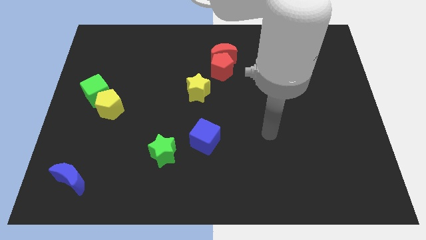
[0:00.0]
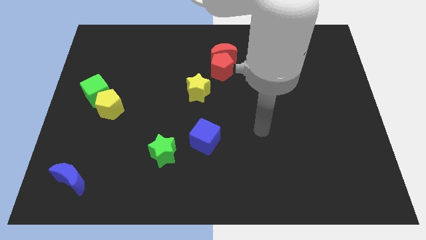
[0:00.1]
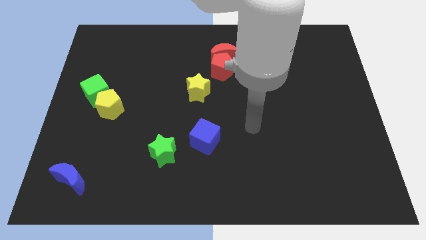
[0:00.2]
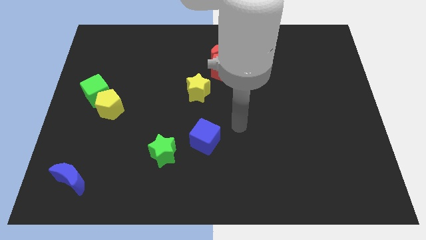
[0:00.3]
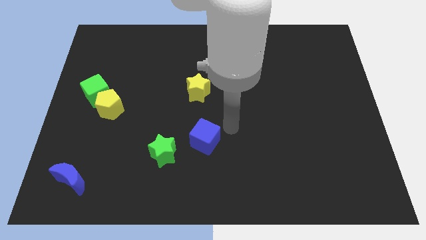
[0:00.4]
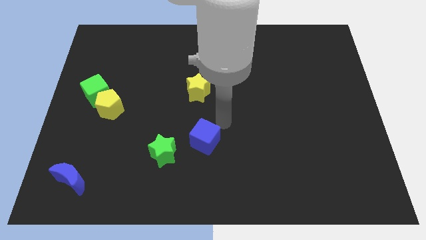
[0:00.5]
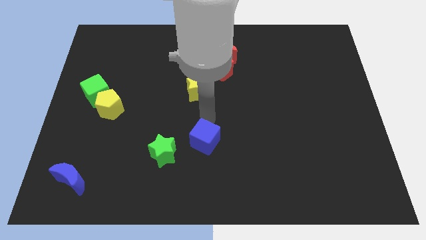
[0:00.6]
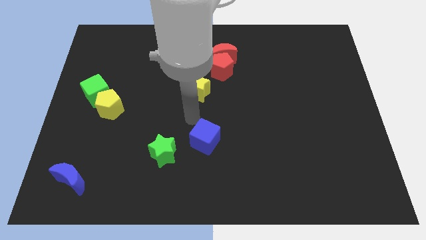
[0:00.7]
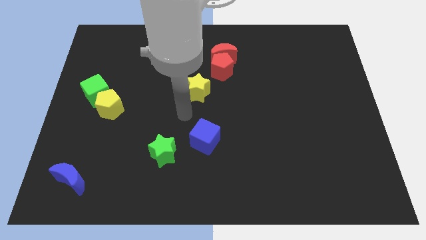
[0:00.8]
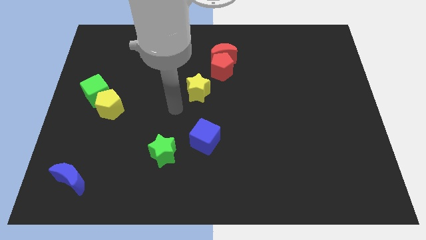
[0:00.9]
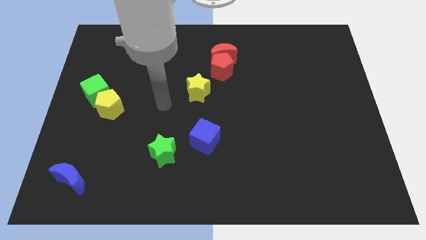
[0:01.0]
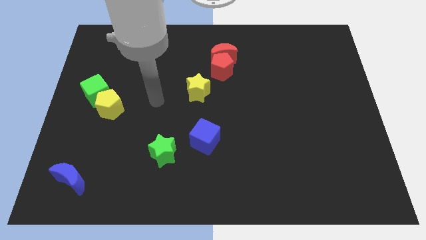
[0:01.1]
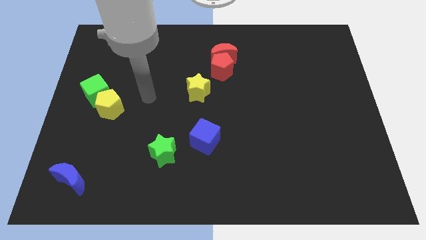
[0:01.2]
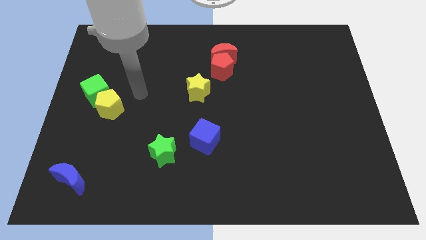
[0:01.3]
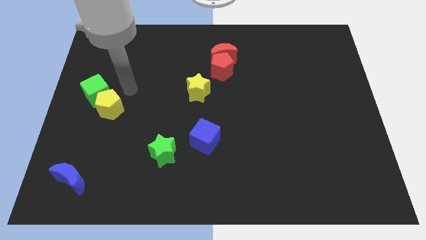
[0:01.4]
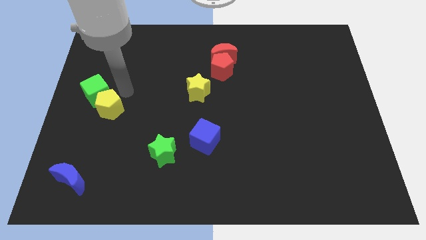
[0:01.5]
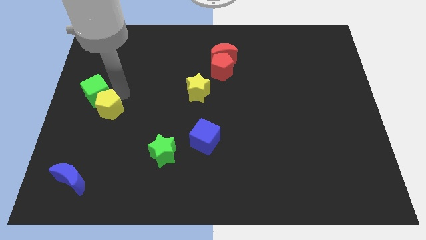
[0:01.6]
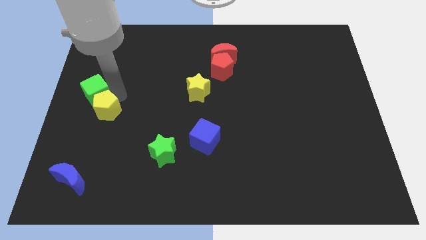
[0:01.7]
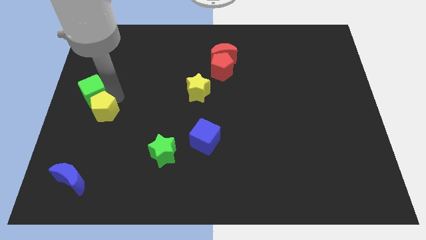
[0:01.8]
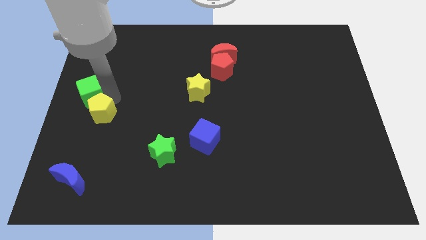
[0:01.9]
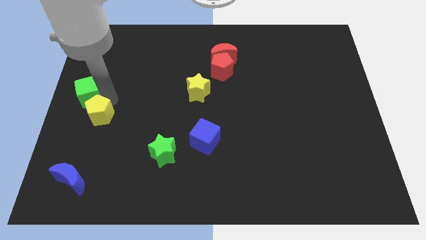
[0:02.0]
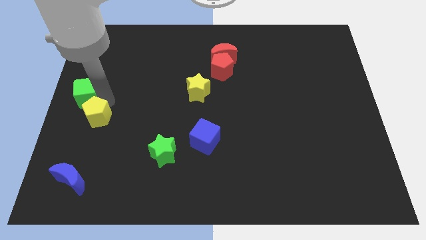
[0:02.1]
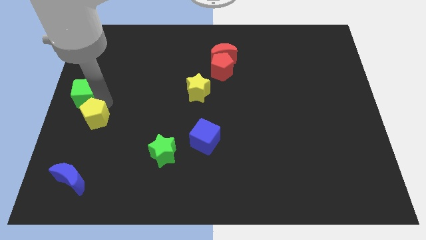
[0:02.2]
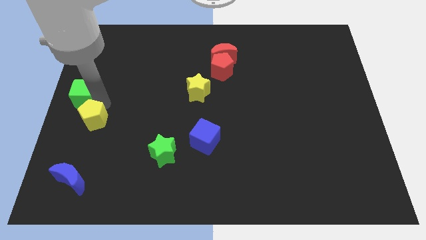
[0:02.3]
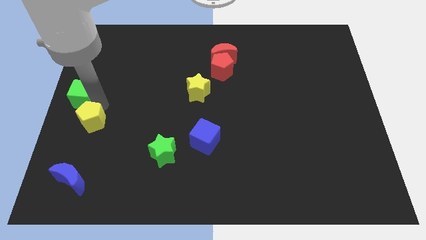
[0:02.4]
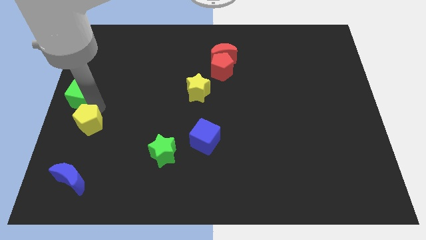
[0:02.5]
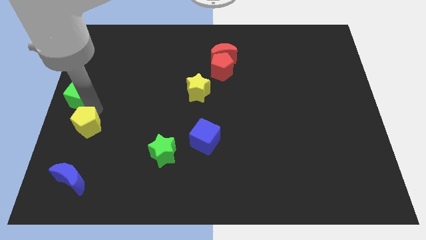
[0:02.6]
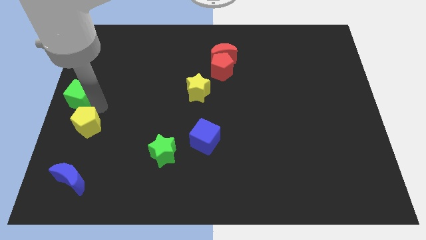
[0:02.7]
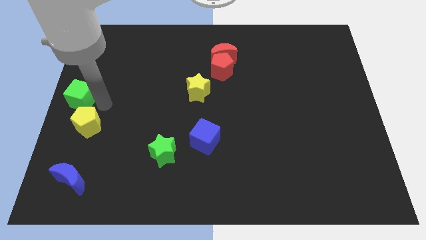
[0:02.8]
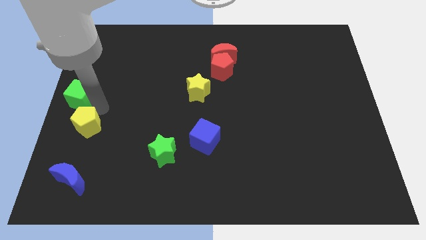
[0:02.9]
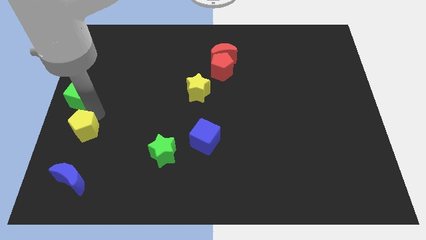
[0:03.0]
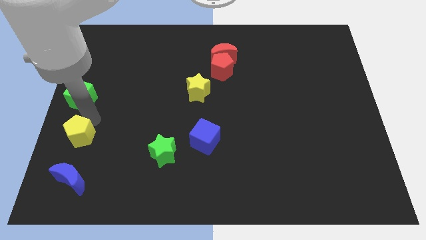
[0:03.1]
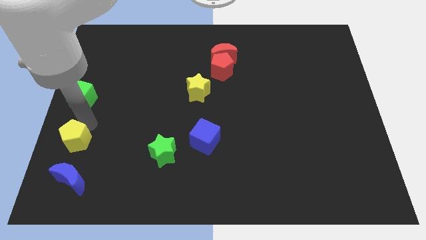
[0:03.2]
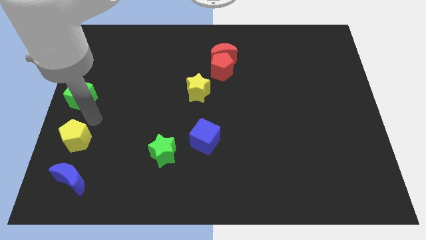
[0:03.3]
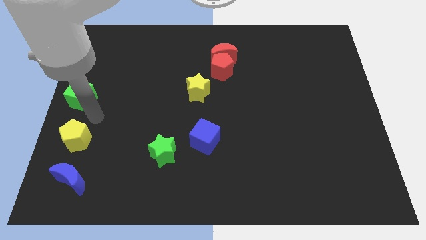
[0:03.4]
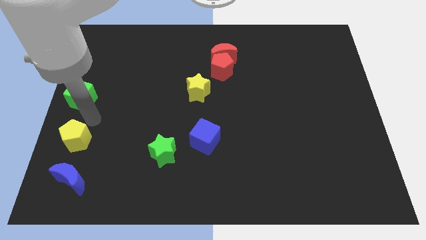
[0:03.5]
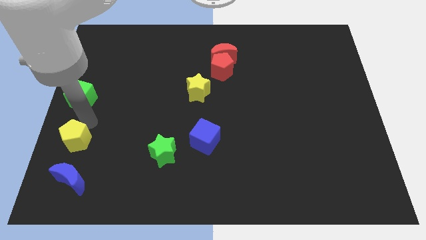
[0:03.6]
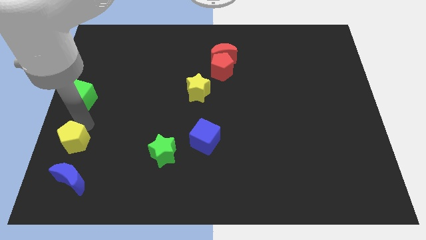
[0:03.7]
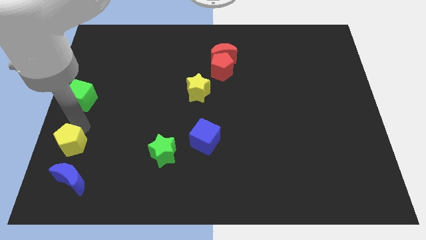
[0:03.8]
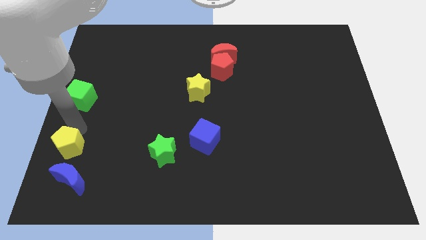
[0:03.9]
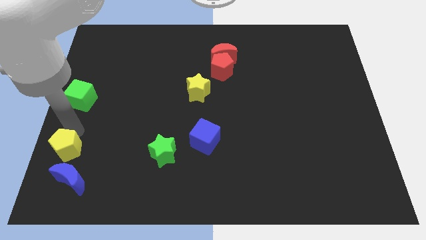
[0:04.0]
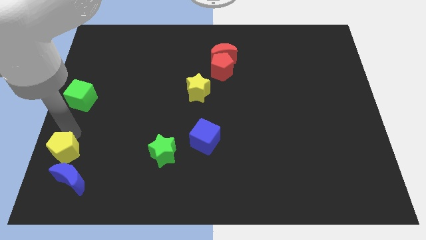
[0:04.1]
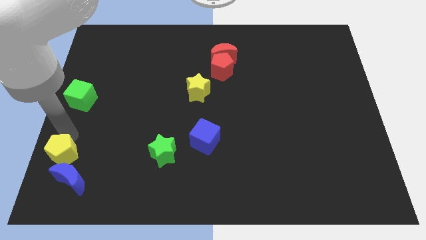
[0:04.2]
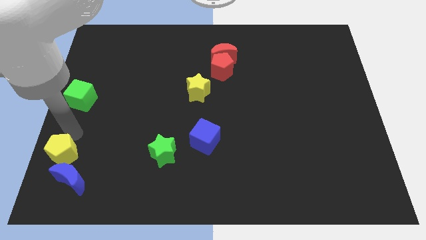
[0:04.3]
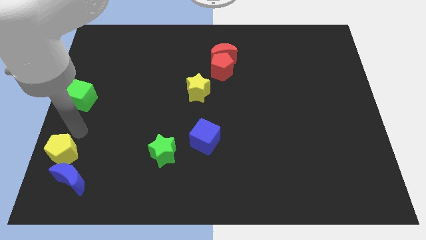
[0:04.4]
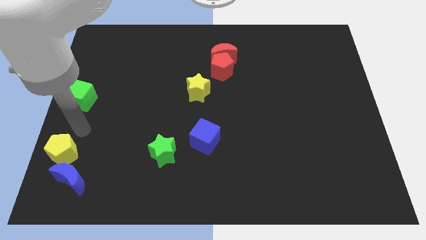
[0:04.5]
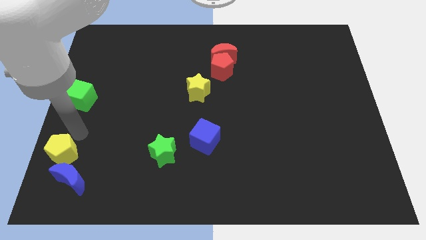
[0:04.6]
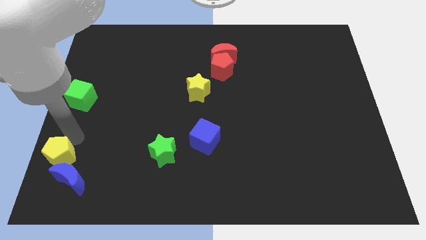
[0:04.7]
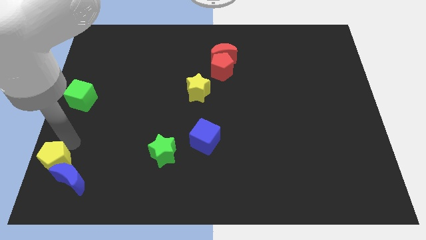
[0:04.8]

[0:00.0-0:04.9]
slide the yellow pentagon to the lower left corner

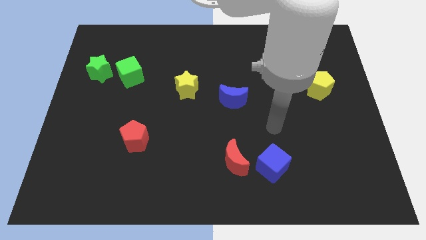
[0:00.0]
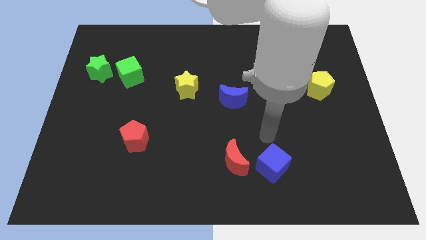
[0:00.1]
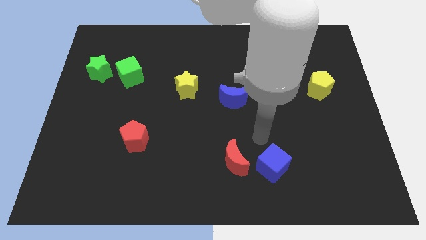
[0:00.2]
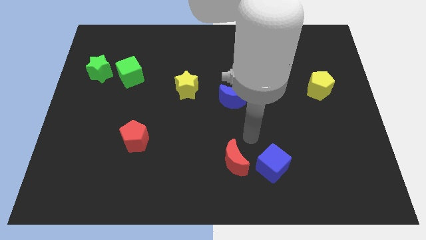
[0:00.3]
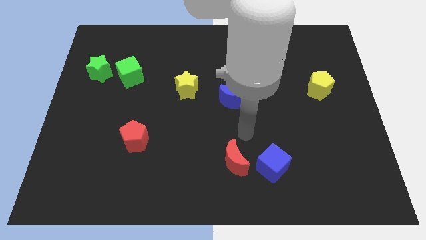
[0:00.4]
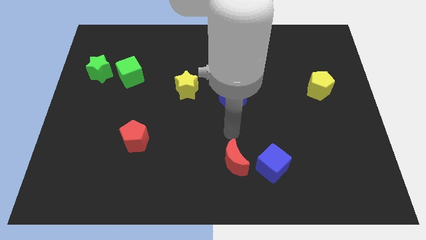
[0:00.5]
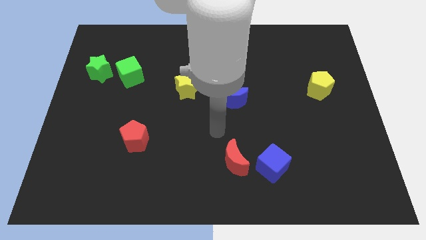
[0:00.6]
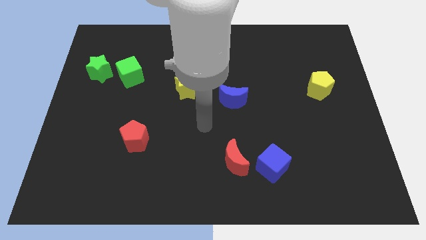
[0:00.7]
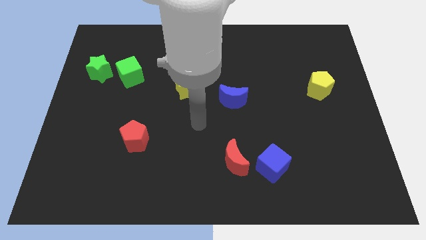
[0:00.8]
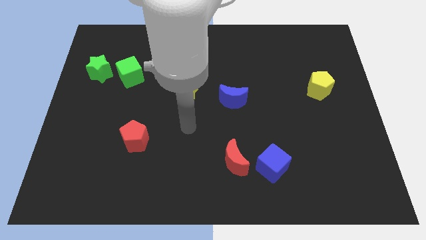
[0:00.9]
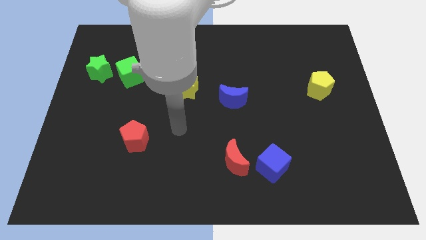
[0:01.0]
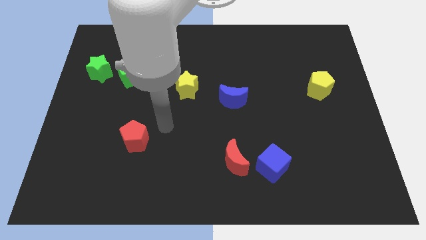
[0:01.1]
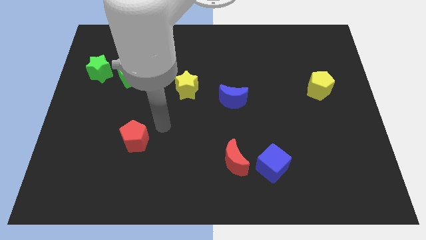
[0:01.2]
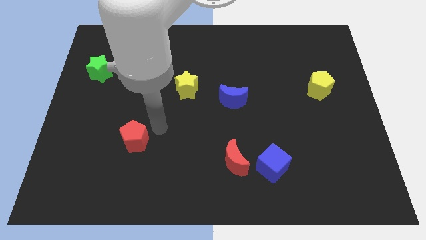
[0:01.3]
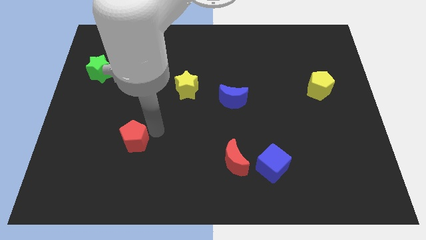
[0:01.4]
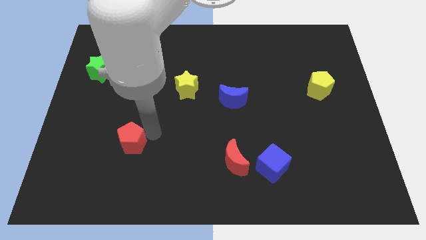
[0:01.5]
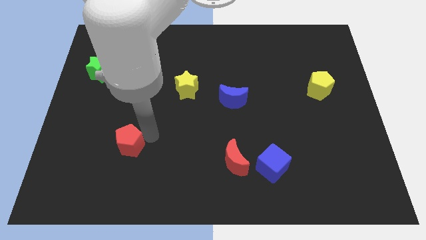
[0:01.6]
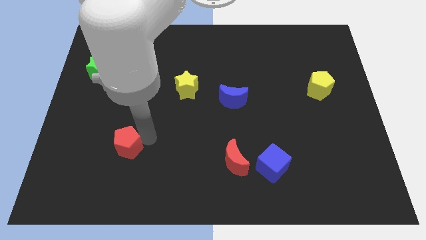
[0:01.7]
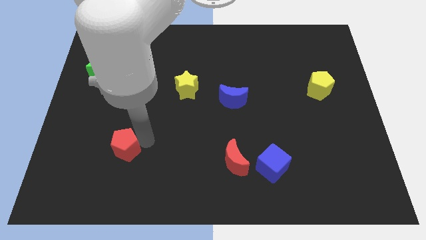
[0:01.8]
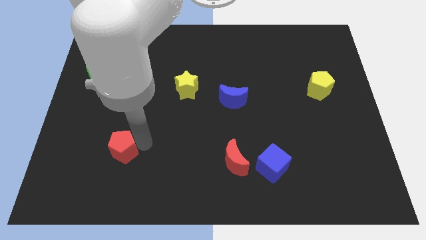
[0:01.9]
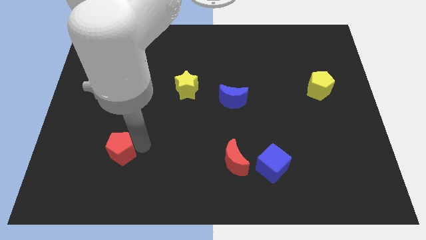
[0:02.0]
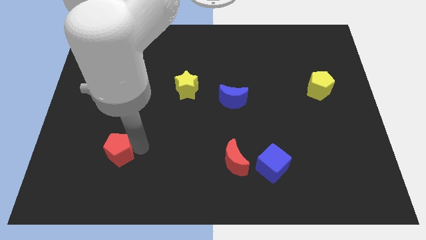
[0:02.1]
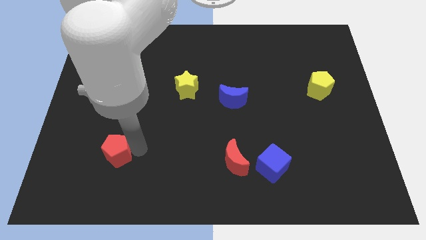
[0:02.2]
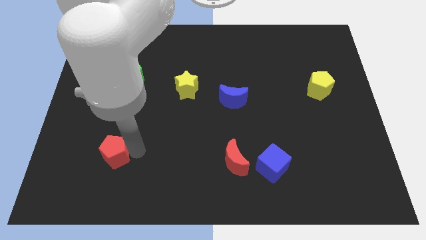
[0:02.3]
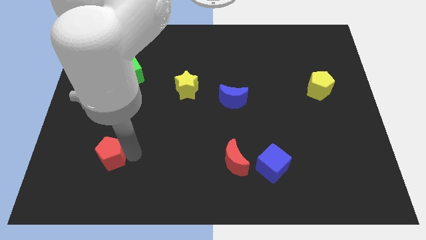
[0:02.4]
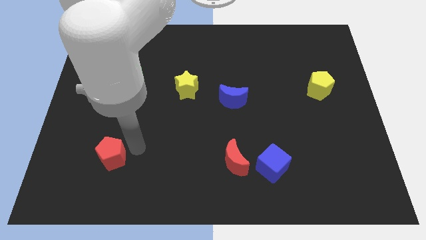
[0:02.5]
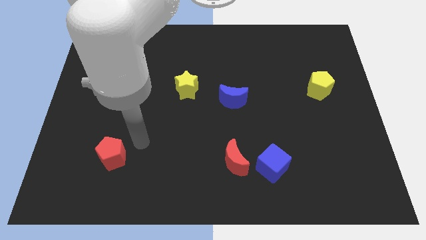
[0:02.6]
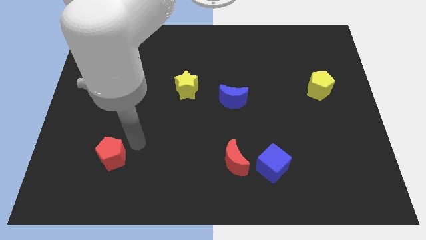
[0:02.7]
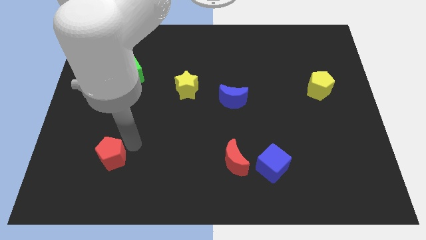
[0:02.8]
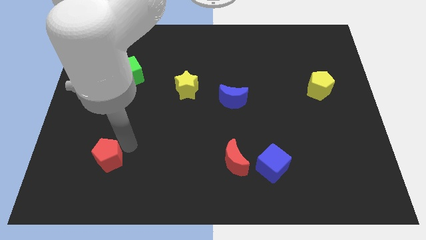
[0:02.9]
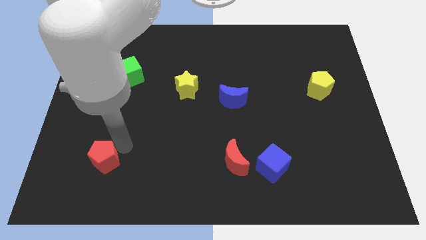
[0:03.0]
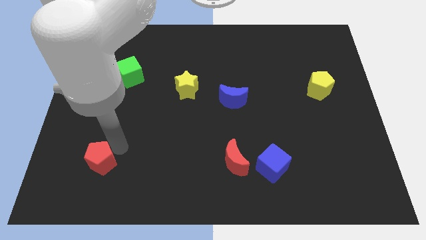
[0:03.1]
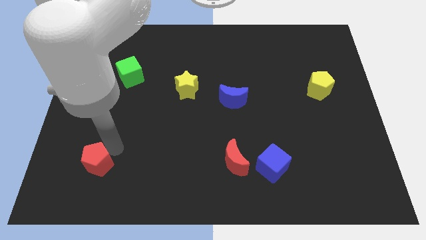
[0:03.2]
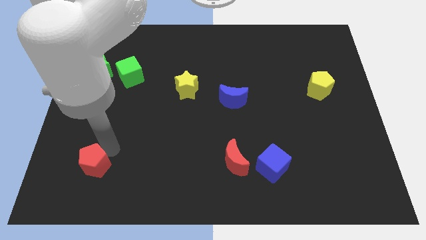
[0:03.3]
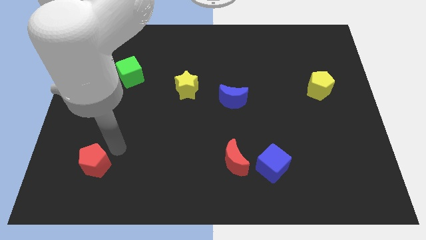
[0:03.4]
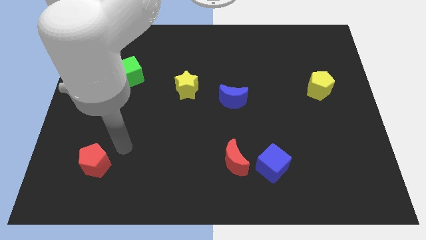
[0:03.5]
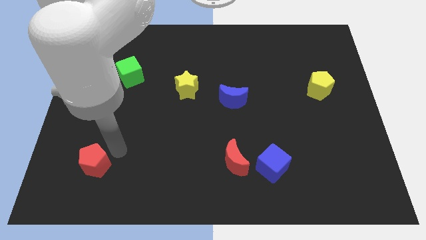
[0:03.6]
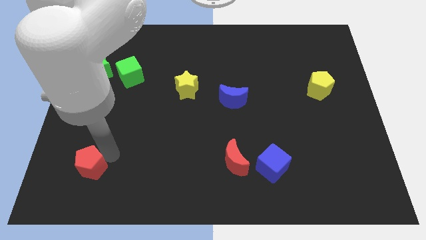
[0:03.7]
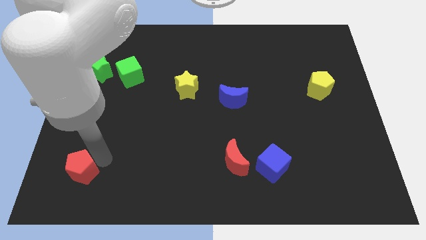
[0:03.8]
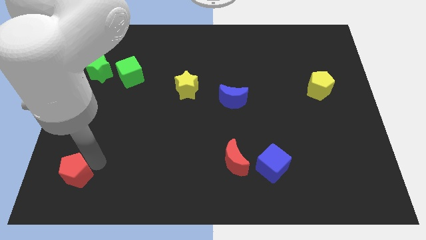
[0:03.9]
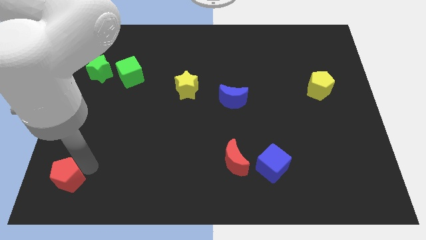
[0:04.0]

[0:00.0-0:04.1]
move the red pentagon to the lower left corner
